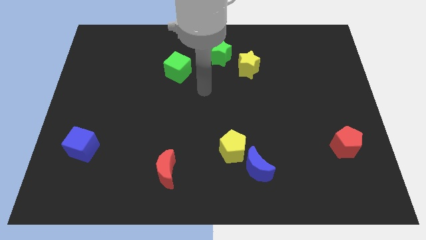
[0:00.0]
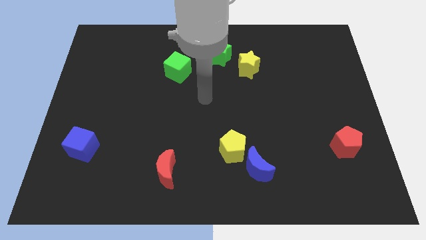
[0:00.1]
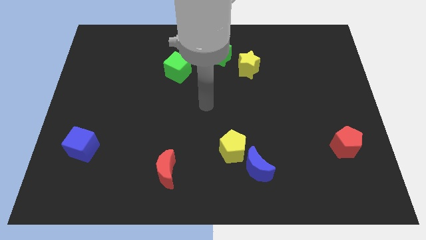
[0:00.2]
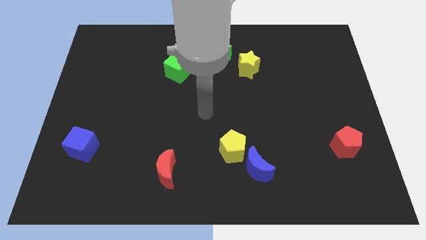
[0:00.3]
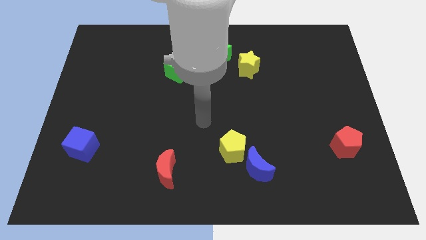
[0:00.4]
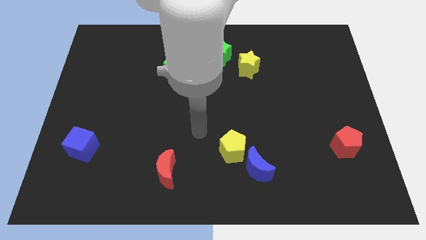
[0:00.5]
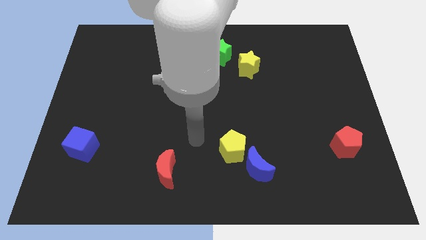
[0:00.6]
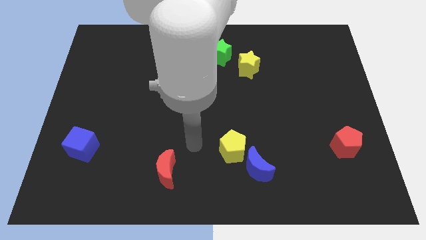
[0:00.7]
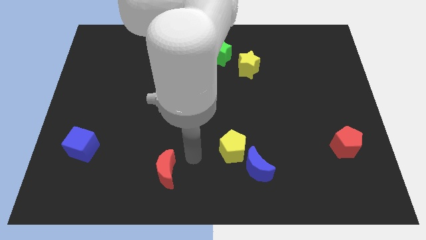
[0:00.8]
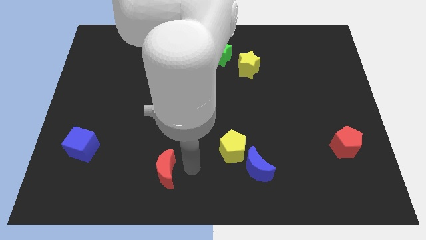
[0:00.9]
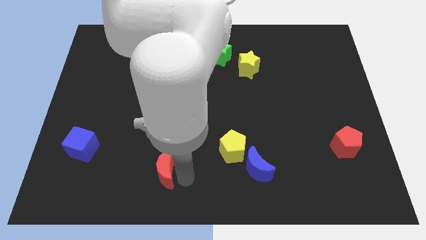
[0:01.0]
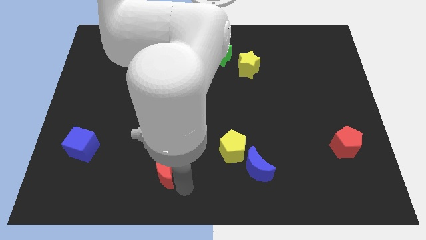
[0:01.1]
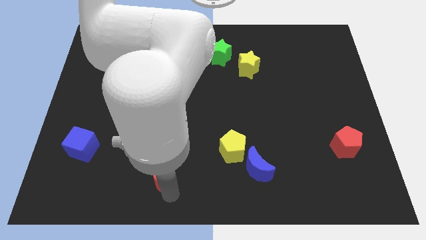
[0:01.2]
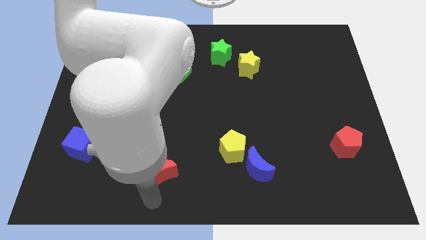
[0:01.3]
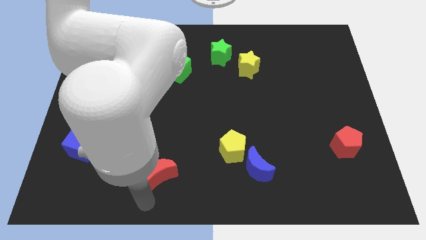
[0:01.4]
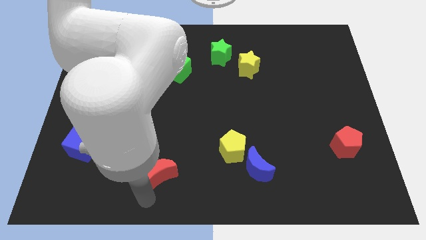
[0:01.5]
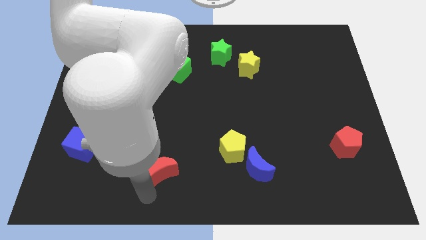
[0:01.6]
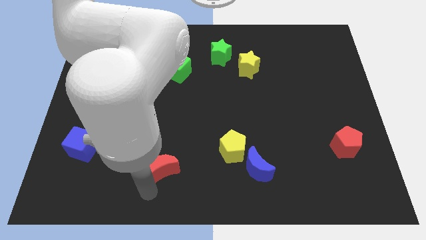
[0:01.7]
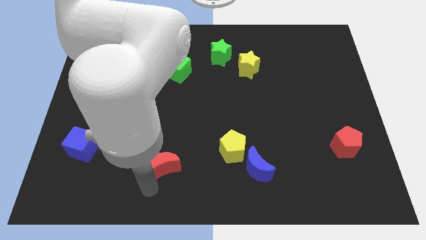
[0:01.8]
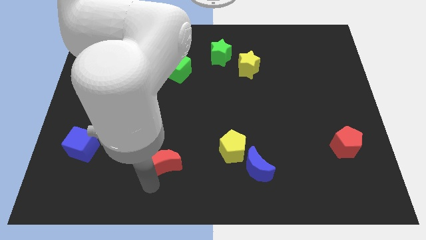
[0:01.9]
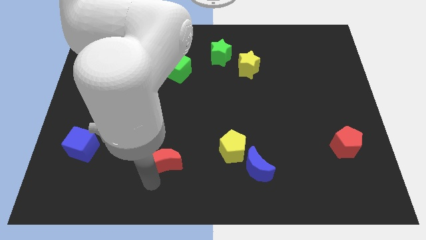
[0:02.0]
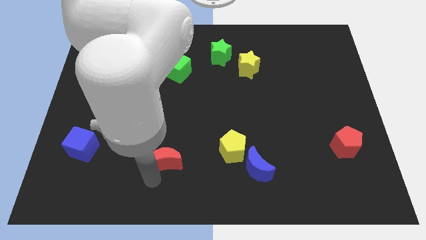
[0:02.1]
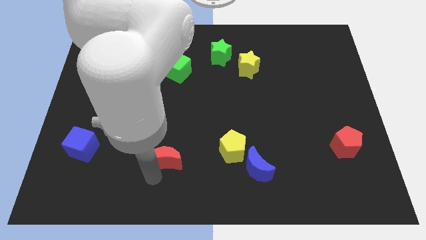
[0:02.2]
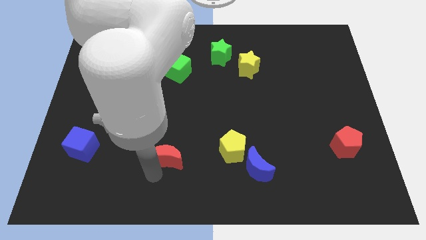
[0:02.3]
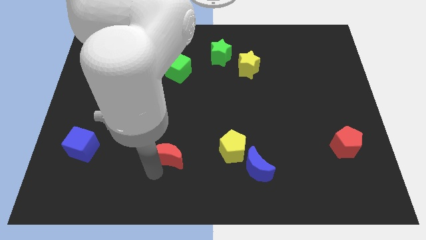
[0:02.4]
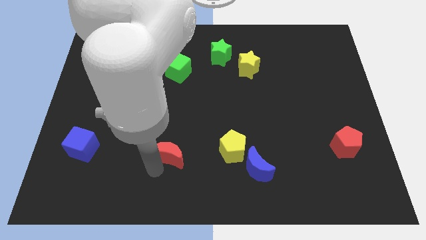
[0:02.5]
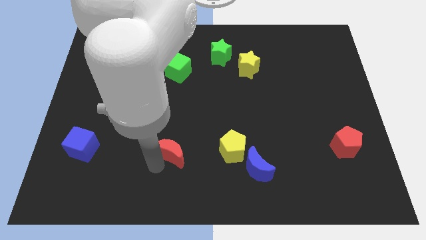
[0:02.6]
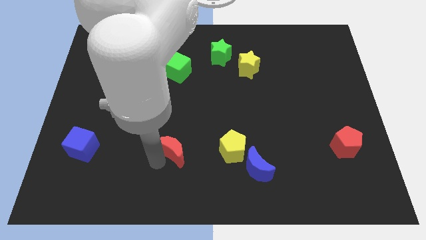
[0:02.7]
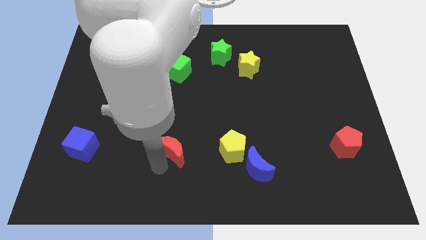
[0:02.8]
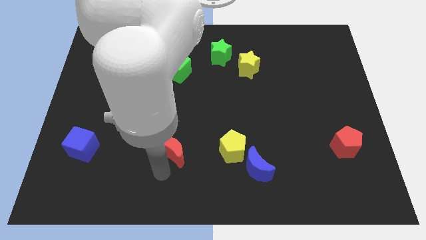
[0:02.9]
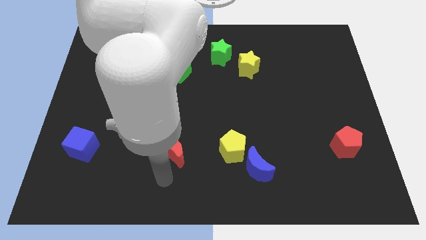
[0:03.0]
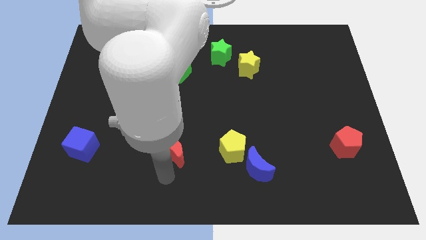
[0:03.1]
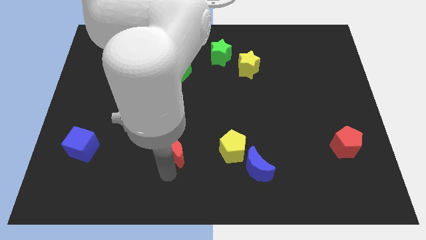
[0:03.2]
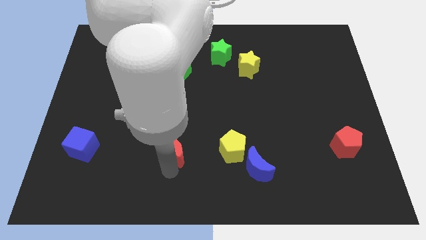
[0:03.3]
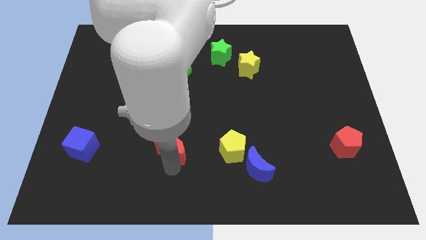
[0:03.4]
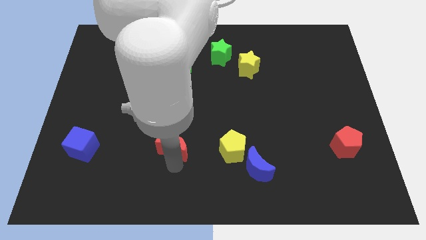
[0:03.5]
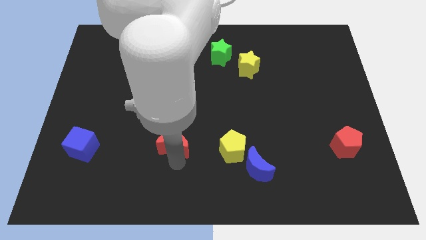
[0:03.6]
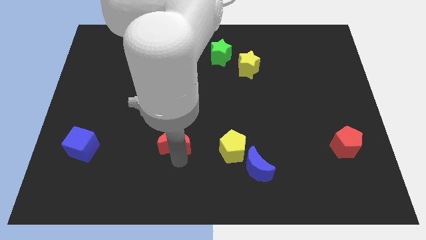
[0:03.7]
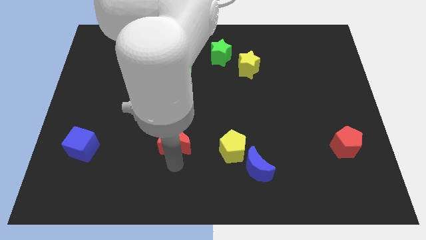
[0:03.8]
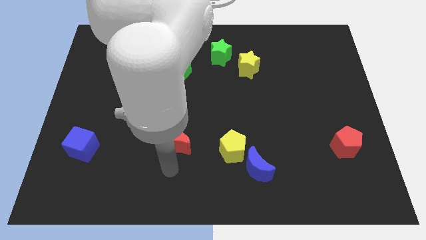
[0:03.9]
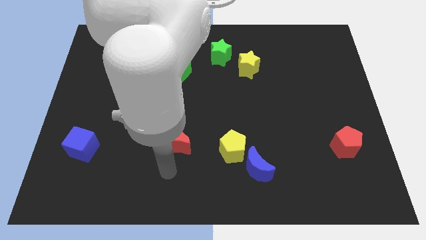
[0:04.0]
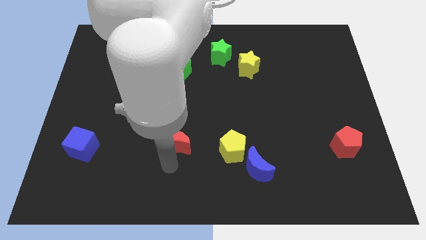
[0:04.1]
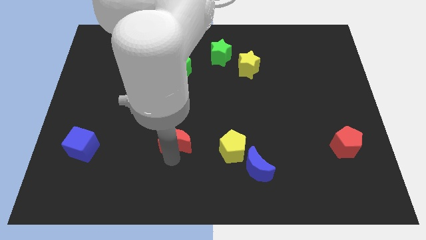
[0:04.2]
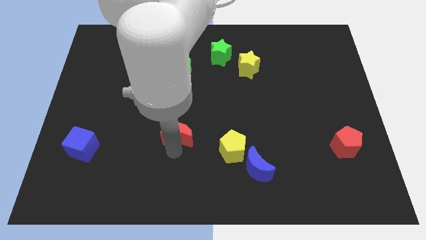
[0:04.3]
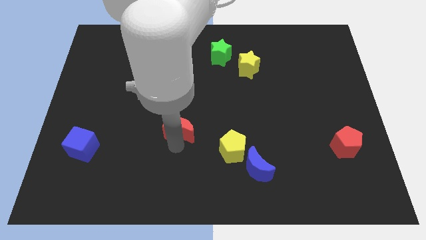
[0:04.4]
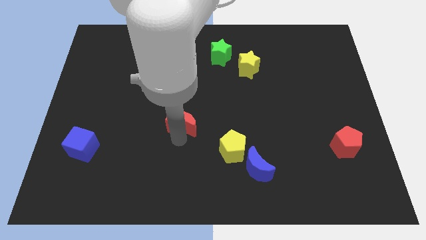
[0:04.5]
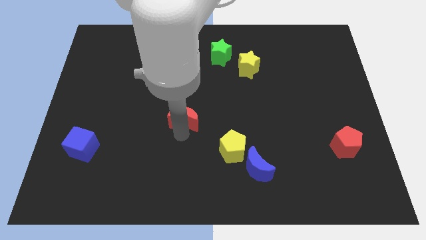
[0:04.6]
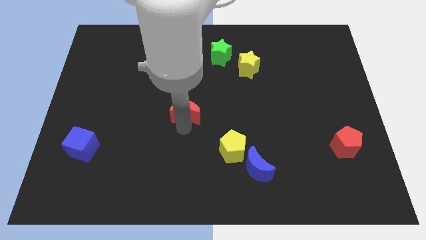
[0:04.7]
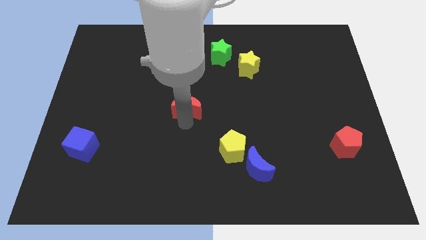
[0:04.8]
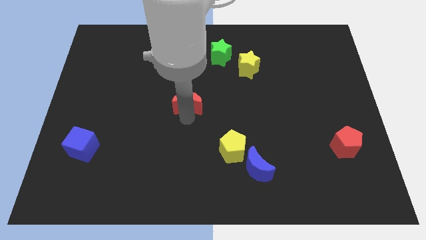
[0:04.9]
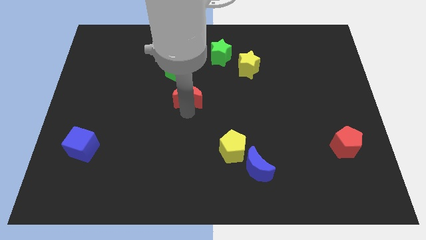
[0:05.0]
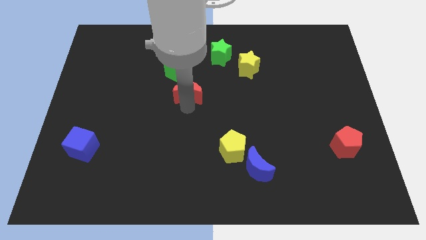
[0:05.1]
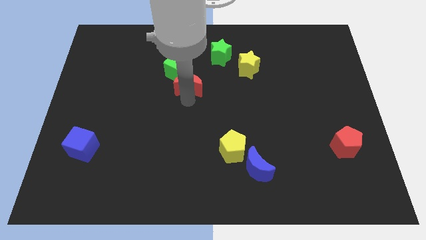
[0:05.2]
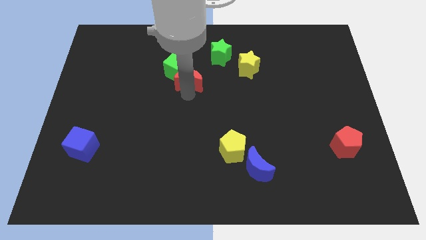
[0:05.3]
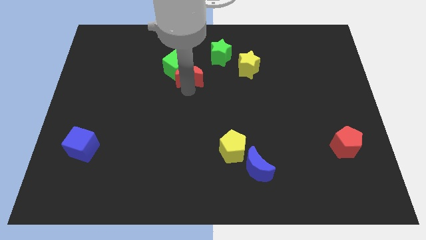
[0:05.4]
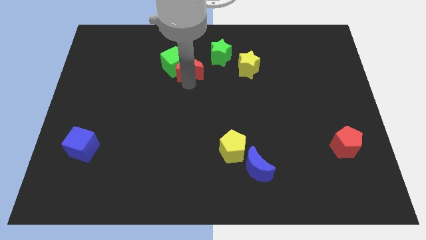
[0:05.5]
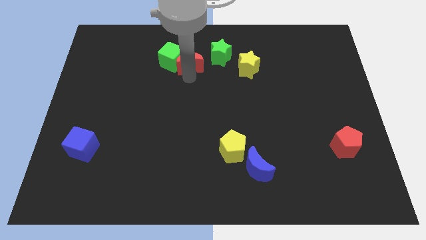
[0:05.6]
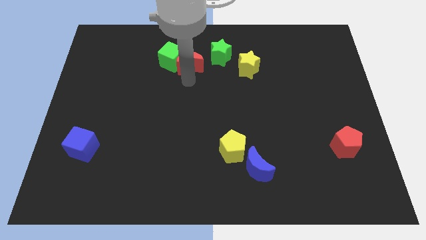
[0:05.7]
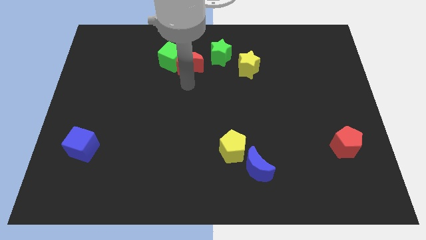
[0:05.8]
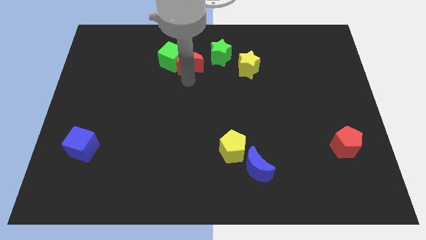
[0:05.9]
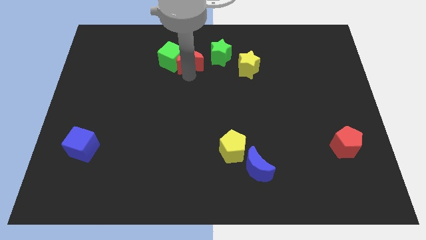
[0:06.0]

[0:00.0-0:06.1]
slide the red moon to the top right of the green cube

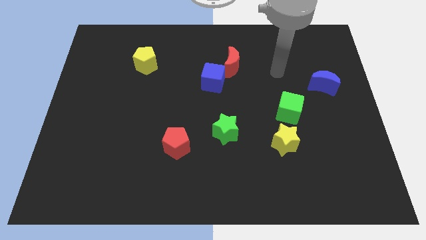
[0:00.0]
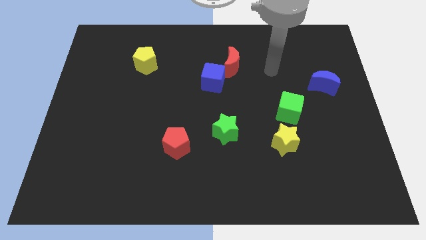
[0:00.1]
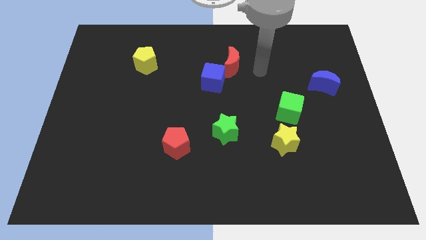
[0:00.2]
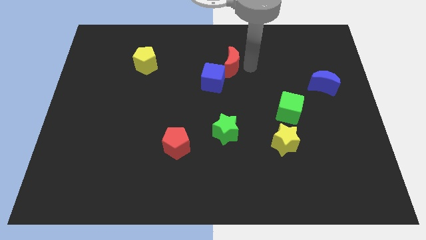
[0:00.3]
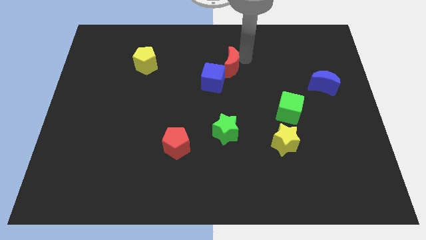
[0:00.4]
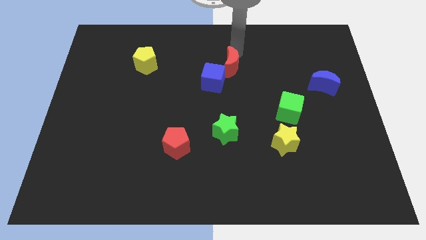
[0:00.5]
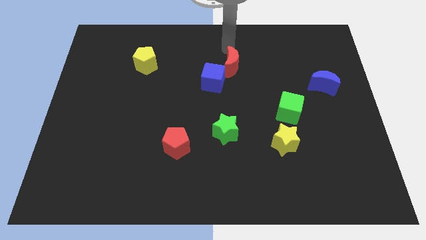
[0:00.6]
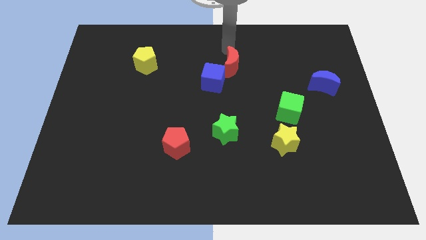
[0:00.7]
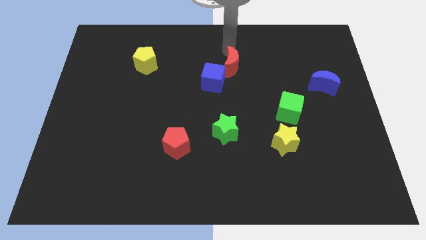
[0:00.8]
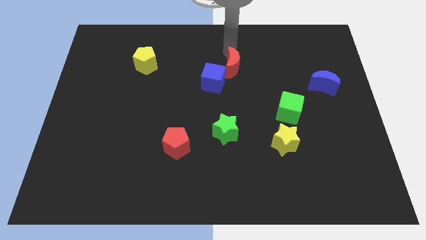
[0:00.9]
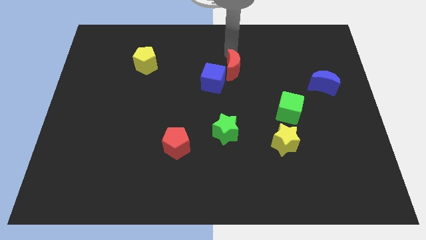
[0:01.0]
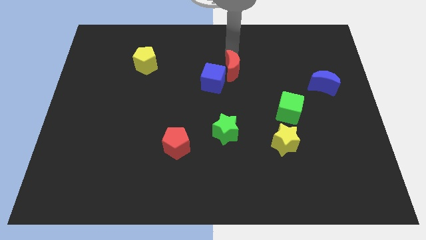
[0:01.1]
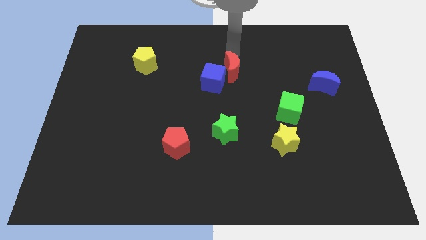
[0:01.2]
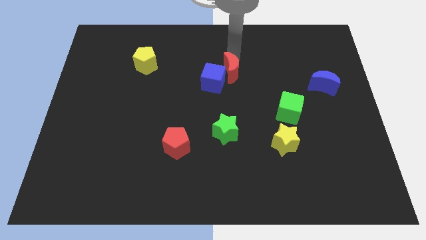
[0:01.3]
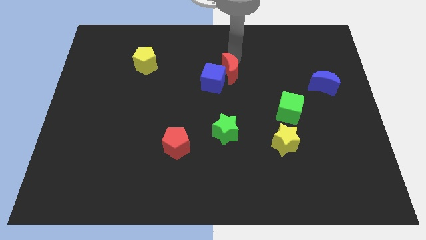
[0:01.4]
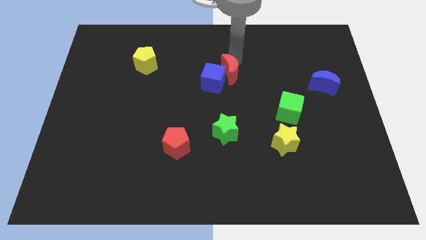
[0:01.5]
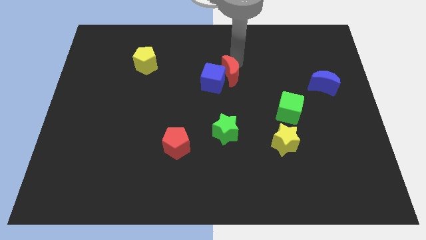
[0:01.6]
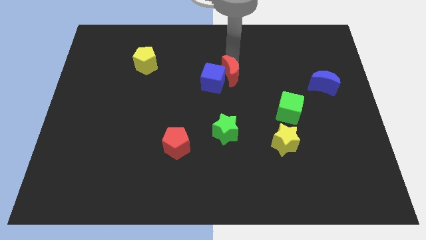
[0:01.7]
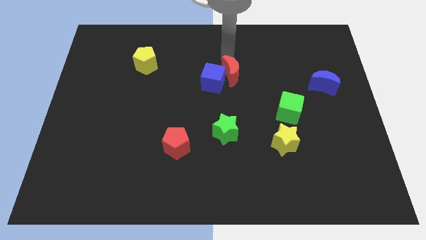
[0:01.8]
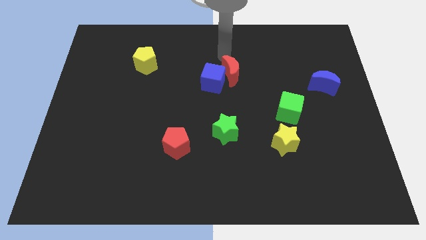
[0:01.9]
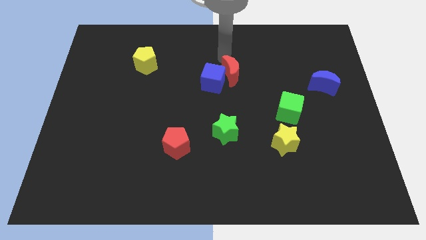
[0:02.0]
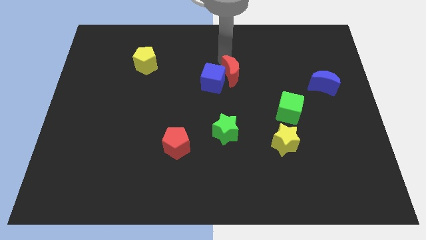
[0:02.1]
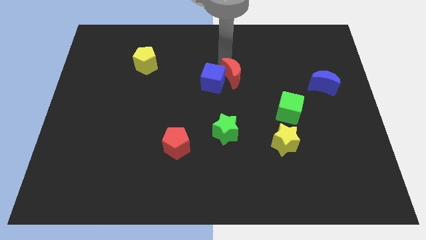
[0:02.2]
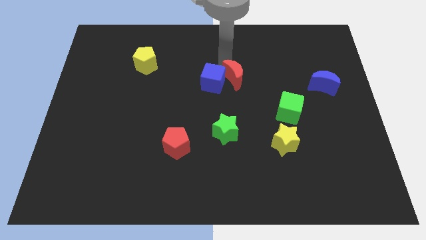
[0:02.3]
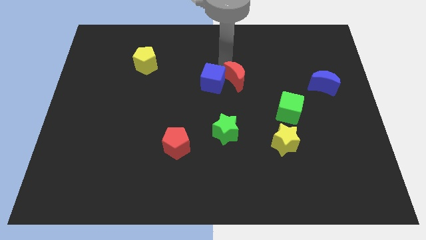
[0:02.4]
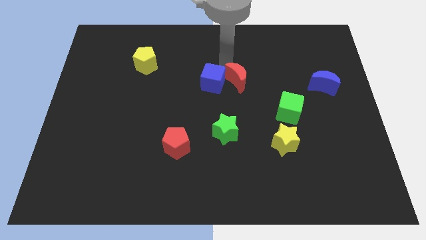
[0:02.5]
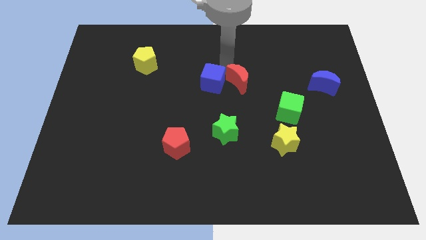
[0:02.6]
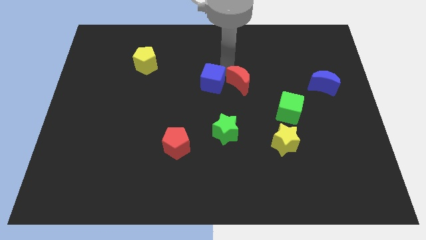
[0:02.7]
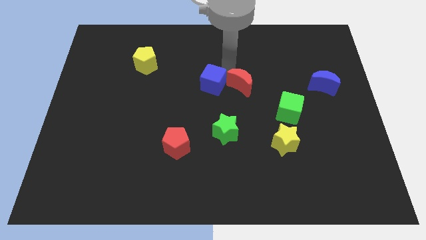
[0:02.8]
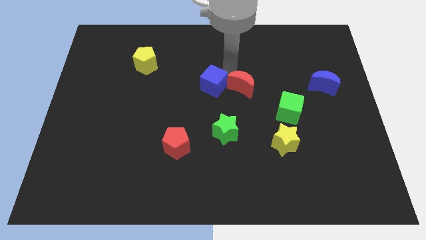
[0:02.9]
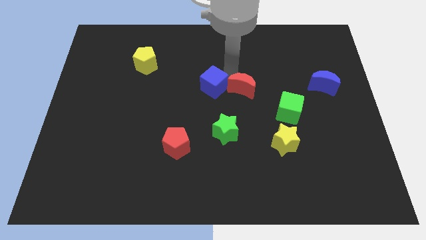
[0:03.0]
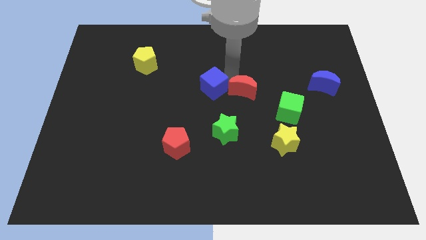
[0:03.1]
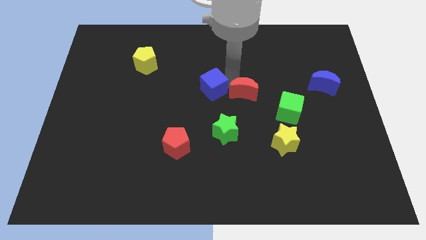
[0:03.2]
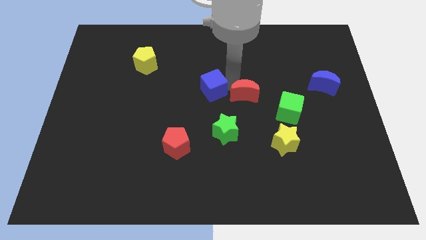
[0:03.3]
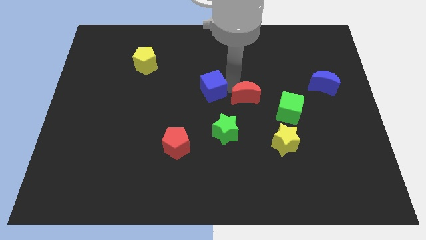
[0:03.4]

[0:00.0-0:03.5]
put the red moon just left of the green cube
